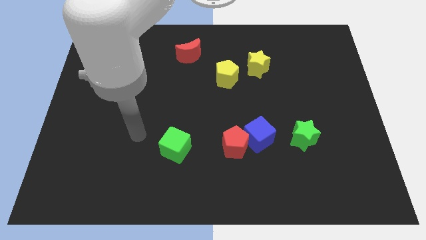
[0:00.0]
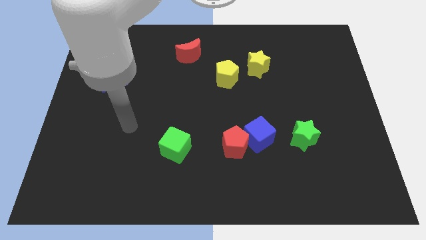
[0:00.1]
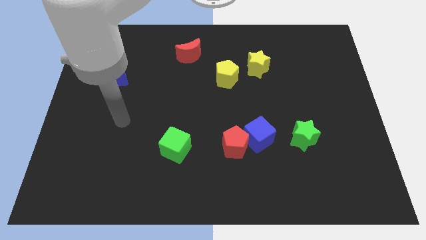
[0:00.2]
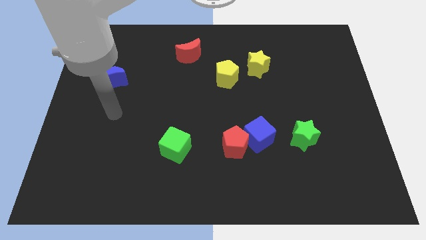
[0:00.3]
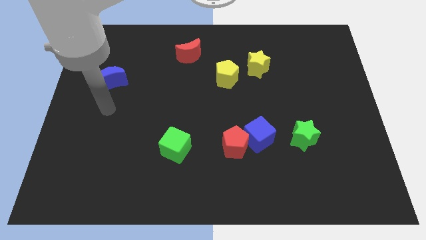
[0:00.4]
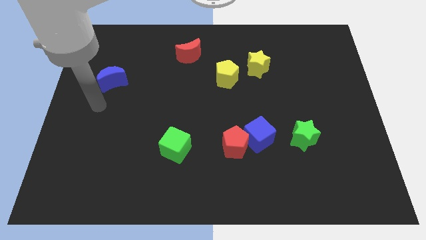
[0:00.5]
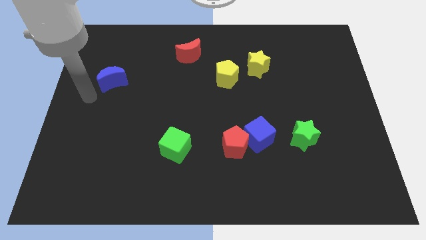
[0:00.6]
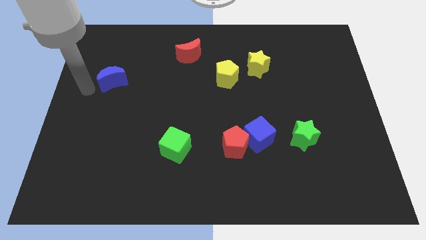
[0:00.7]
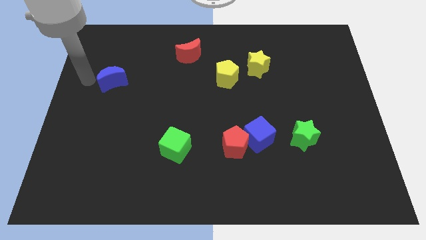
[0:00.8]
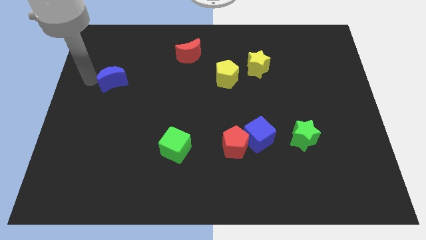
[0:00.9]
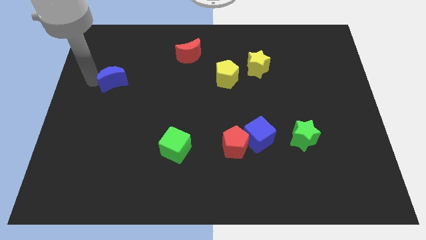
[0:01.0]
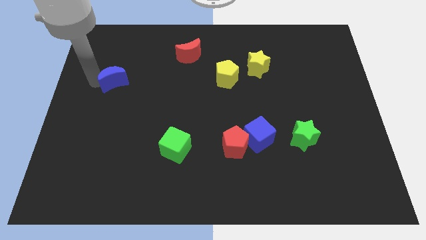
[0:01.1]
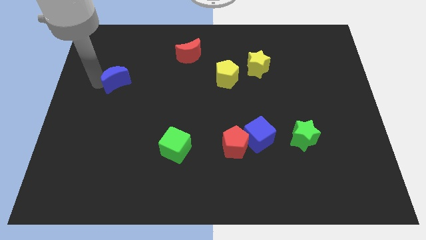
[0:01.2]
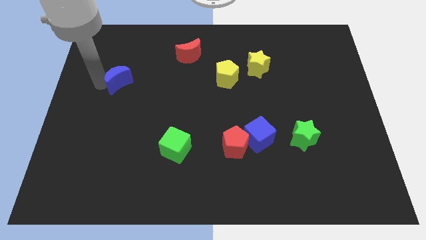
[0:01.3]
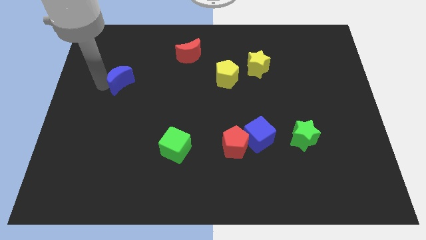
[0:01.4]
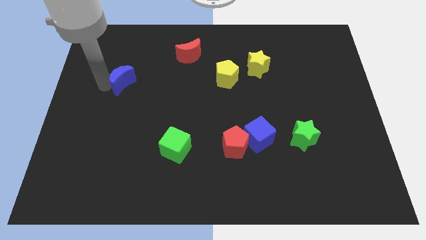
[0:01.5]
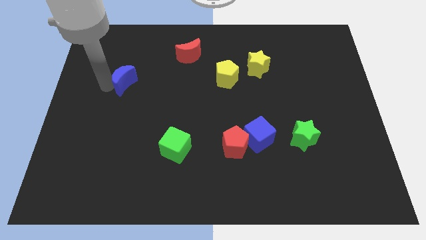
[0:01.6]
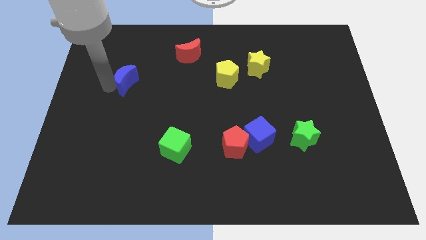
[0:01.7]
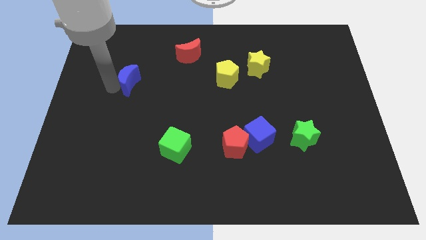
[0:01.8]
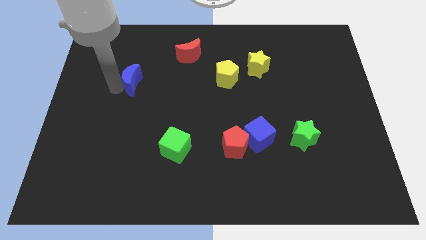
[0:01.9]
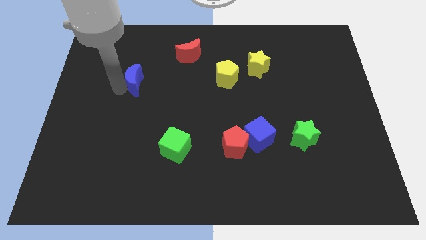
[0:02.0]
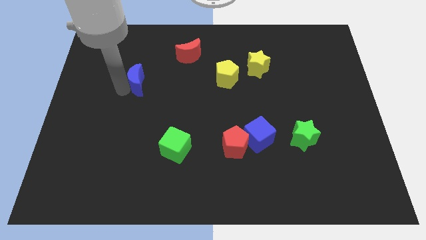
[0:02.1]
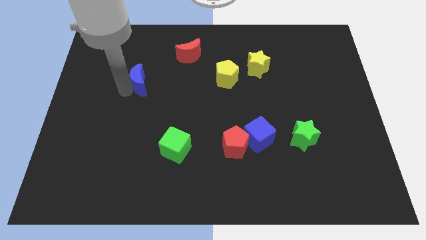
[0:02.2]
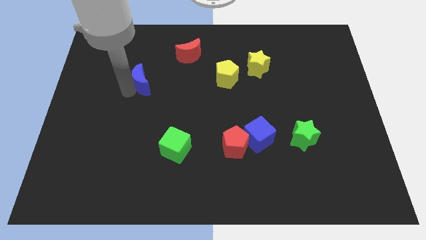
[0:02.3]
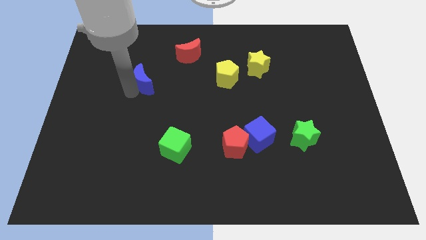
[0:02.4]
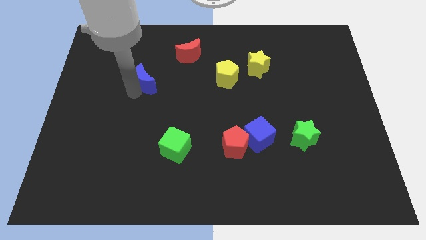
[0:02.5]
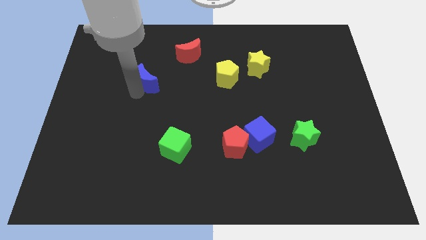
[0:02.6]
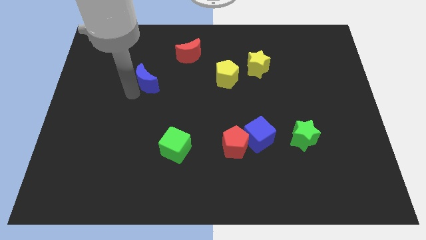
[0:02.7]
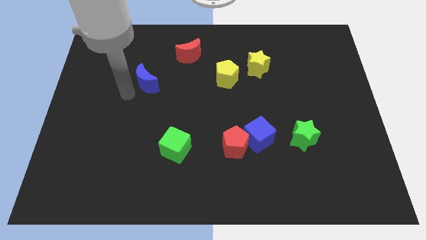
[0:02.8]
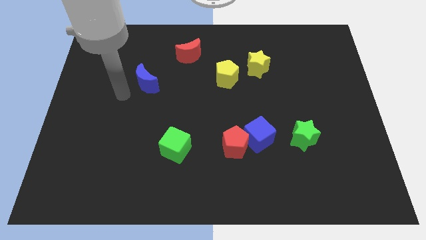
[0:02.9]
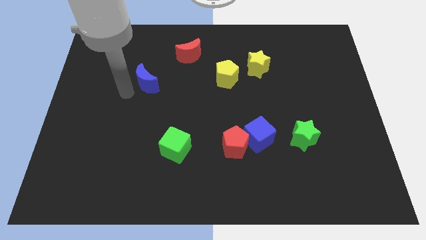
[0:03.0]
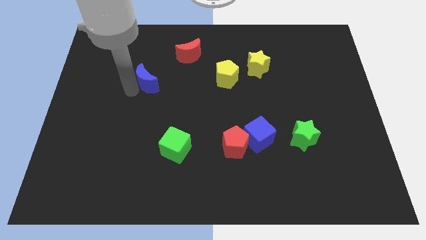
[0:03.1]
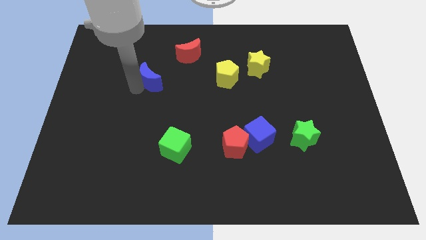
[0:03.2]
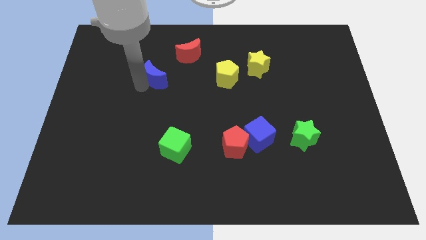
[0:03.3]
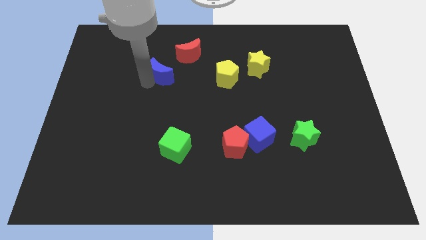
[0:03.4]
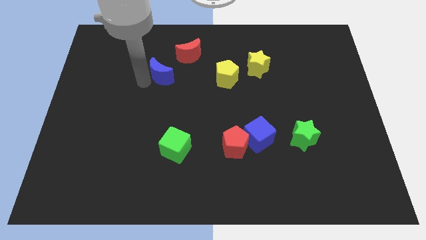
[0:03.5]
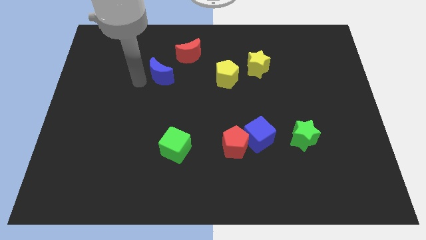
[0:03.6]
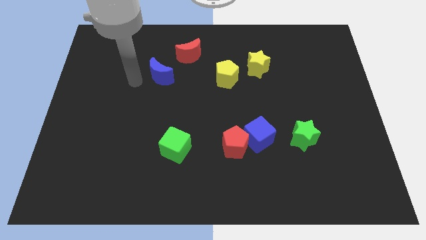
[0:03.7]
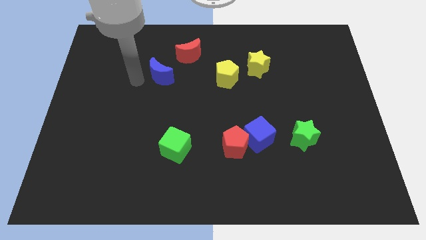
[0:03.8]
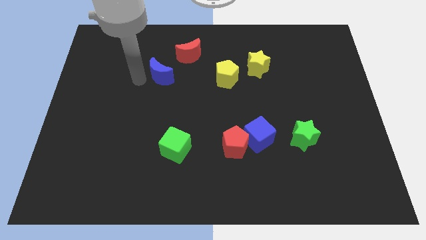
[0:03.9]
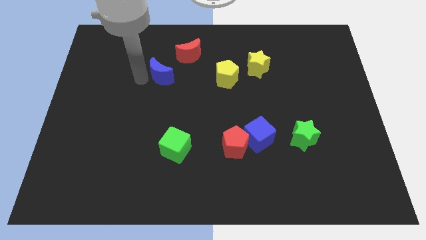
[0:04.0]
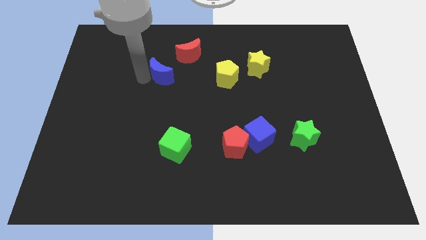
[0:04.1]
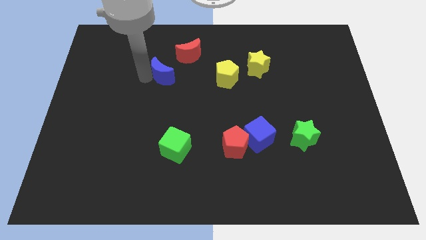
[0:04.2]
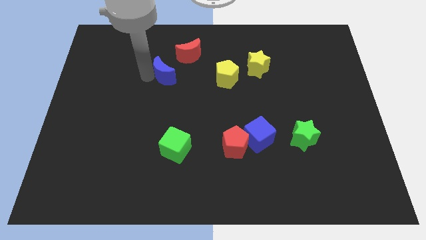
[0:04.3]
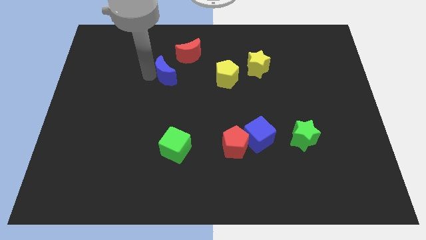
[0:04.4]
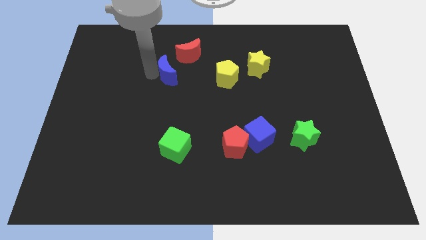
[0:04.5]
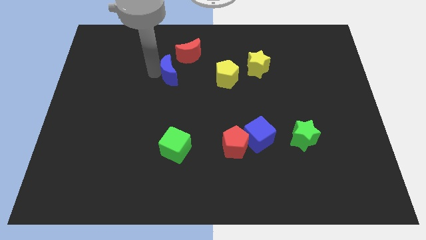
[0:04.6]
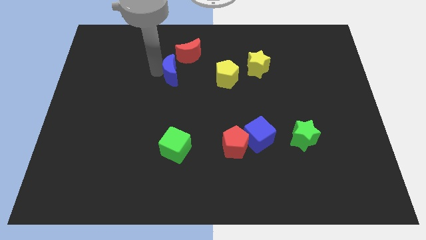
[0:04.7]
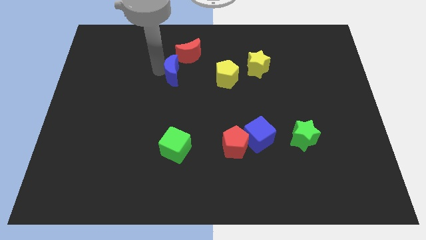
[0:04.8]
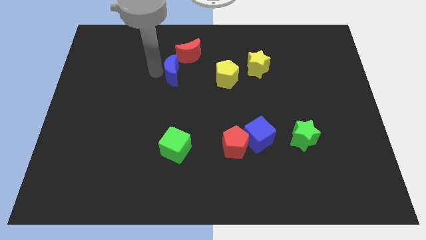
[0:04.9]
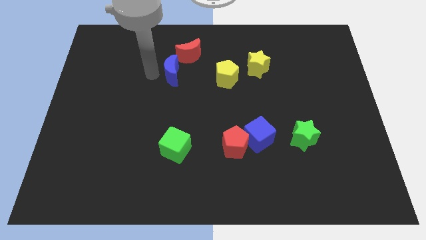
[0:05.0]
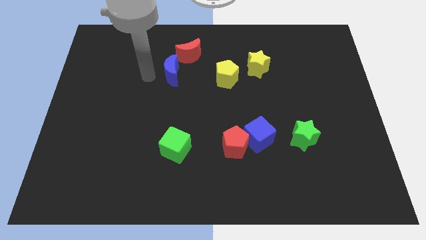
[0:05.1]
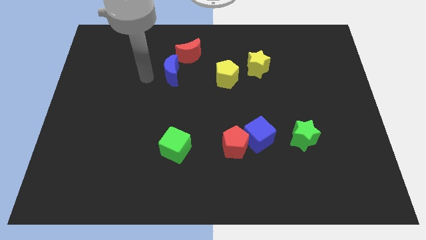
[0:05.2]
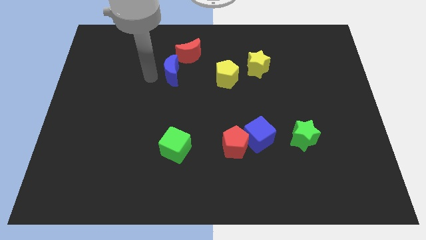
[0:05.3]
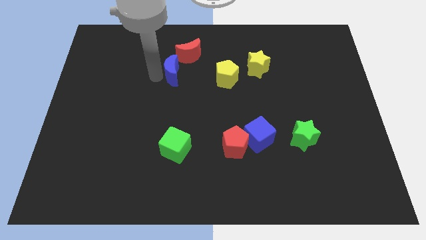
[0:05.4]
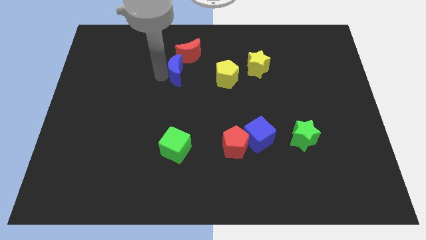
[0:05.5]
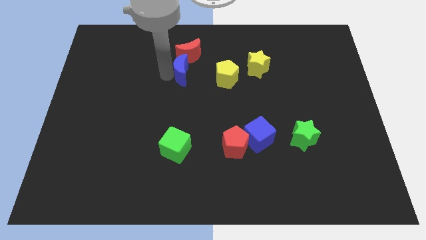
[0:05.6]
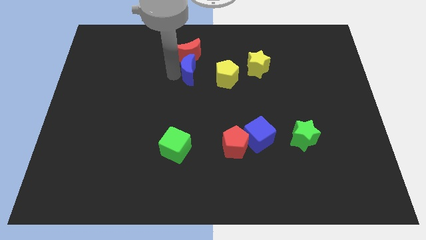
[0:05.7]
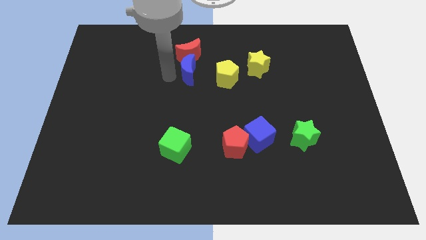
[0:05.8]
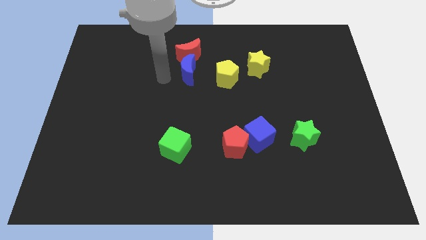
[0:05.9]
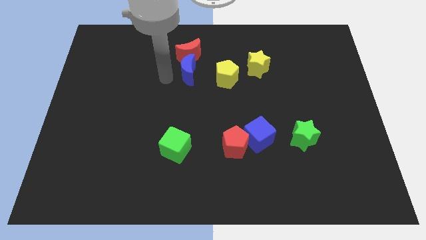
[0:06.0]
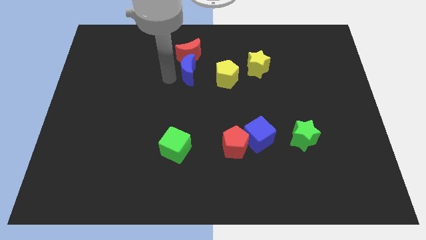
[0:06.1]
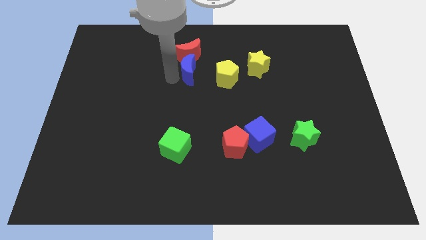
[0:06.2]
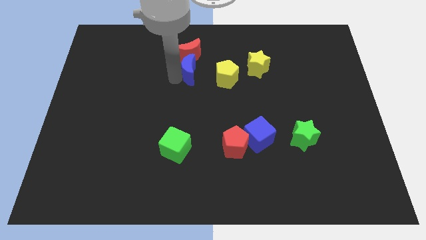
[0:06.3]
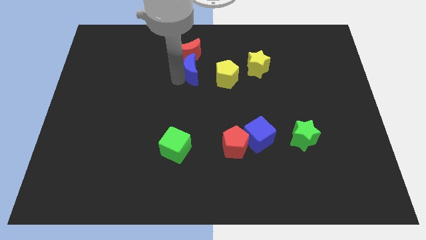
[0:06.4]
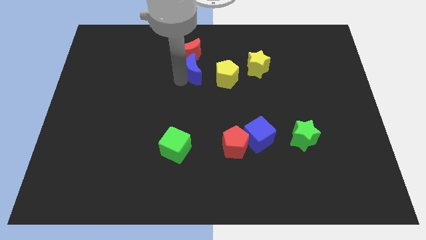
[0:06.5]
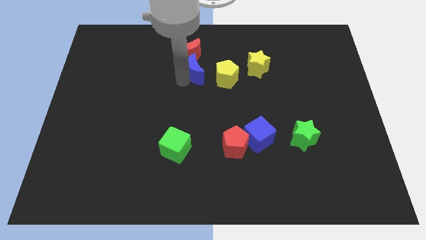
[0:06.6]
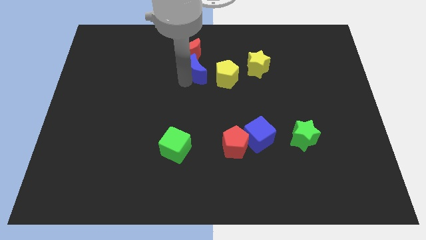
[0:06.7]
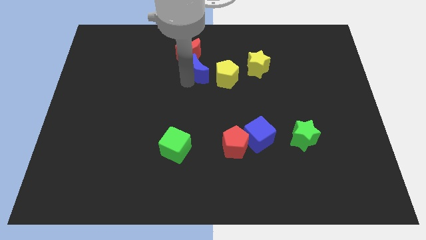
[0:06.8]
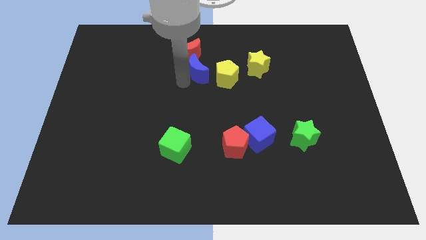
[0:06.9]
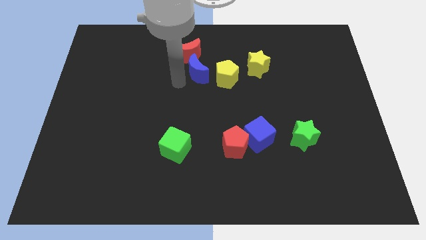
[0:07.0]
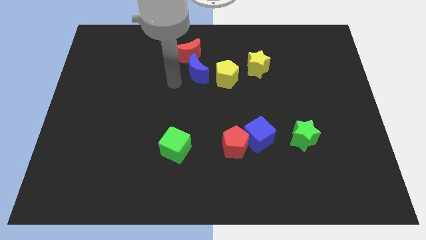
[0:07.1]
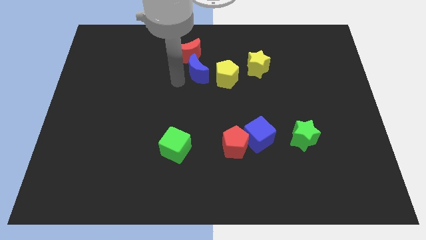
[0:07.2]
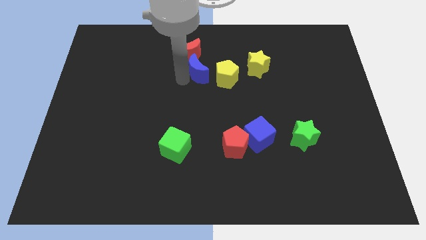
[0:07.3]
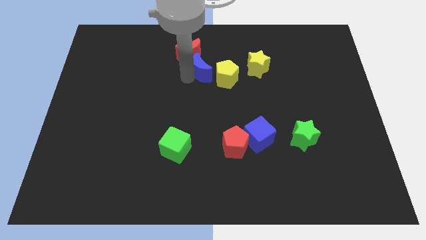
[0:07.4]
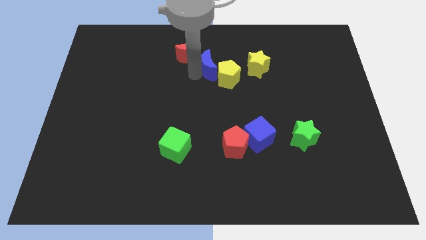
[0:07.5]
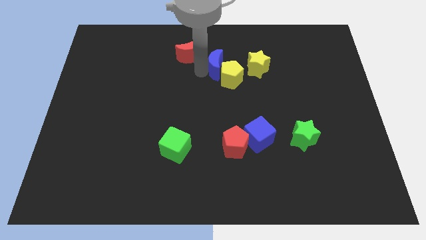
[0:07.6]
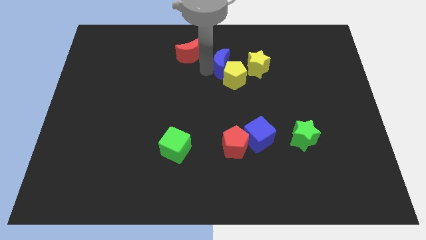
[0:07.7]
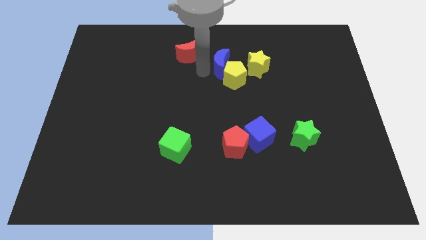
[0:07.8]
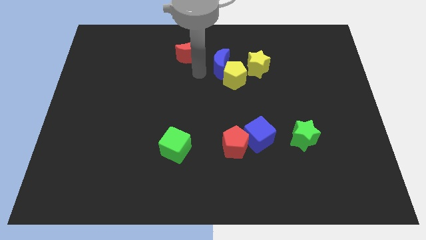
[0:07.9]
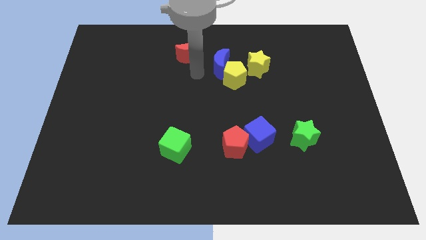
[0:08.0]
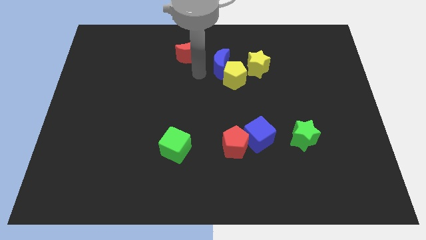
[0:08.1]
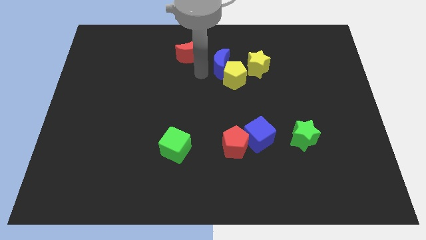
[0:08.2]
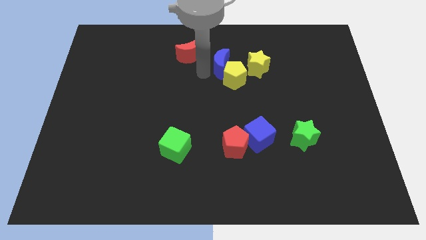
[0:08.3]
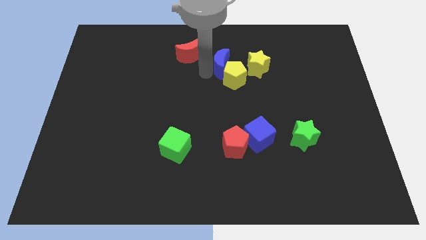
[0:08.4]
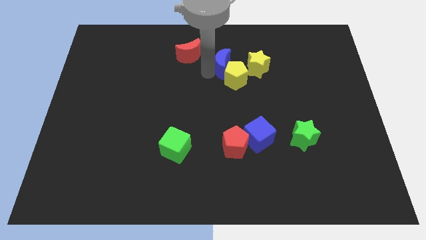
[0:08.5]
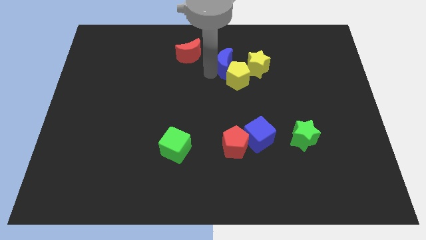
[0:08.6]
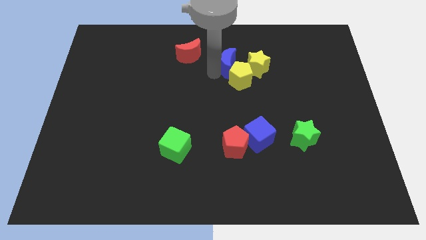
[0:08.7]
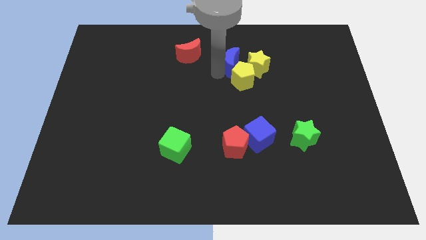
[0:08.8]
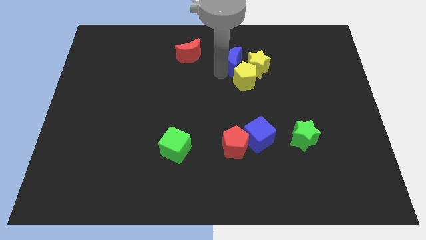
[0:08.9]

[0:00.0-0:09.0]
slide the blue moon towards the yellow star
